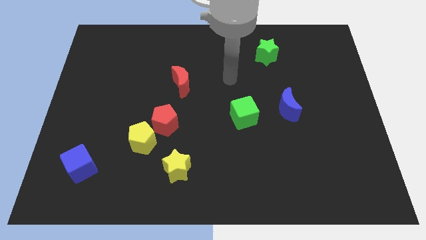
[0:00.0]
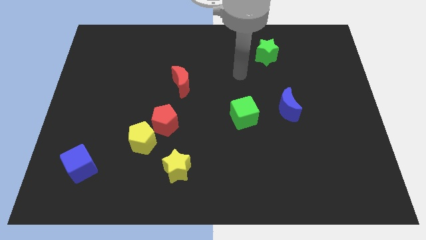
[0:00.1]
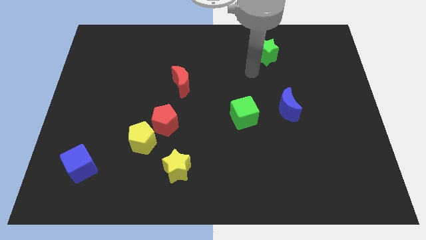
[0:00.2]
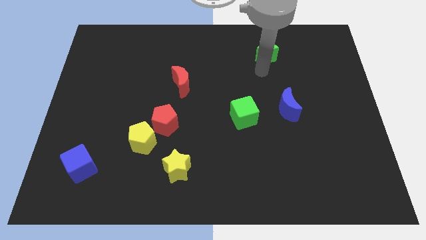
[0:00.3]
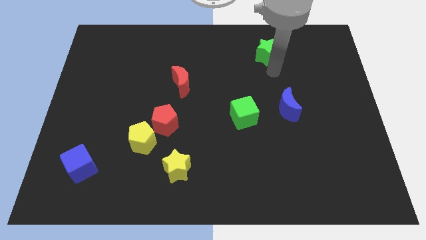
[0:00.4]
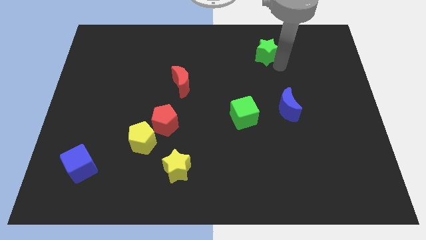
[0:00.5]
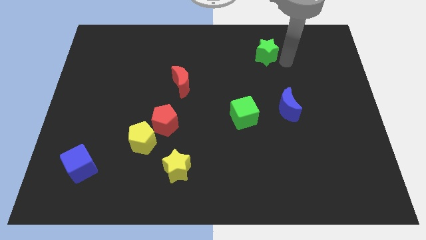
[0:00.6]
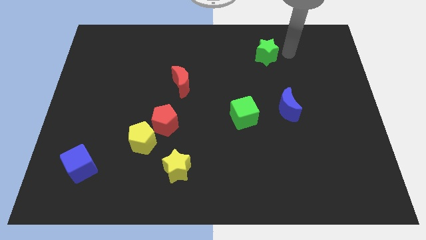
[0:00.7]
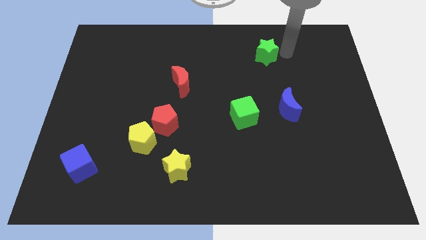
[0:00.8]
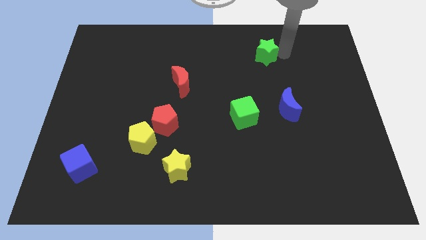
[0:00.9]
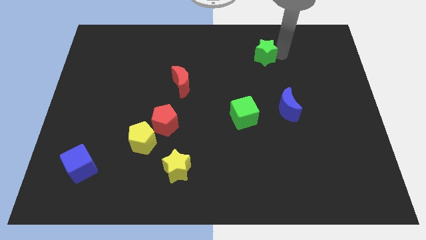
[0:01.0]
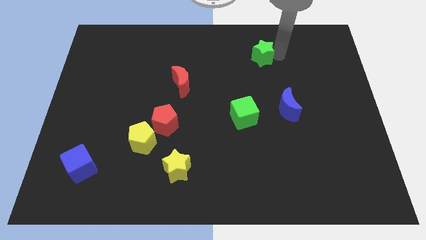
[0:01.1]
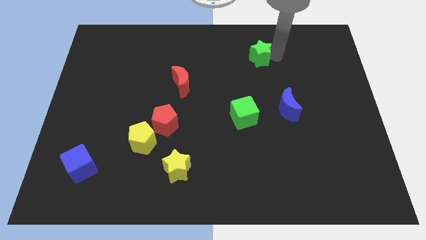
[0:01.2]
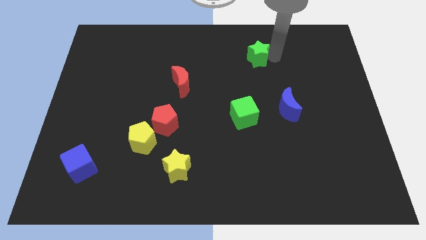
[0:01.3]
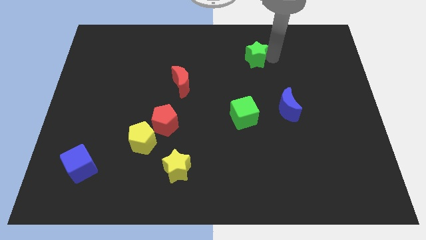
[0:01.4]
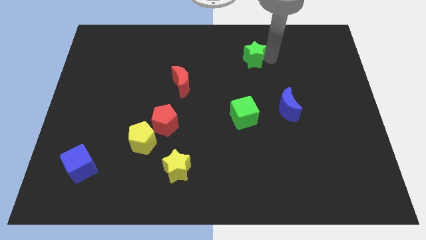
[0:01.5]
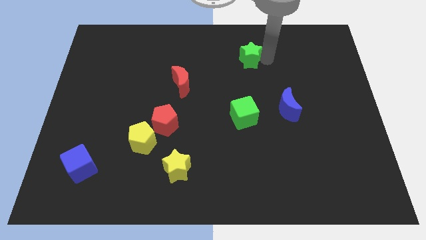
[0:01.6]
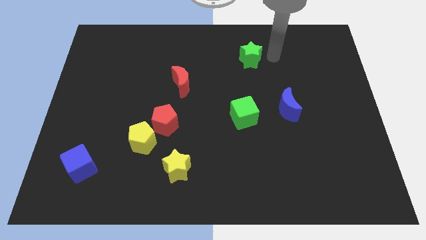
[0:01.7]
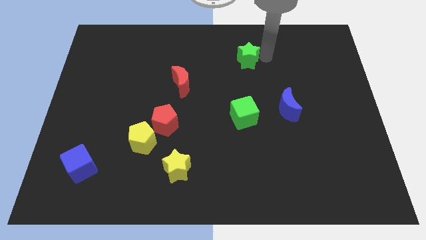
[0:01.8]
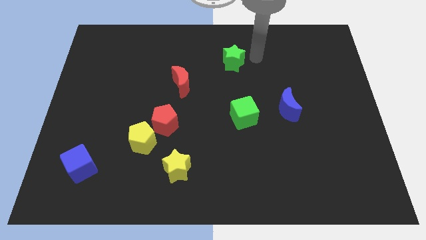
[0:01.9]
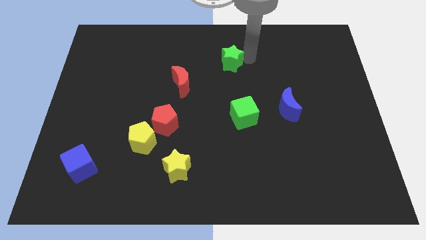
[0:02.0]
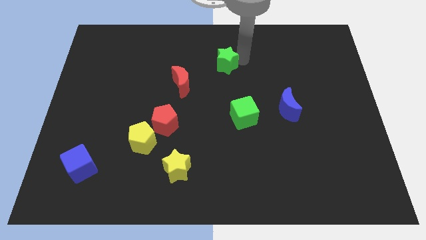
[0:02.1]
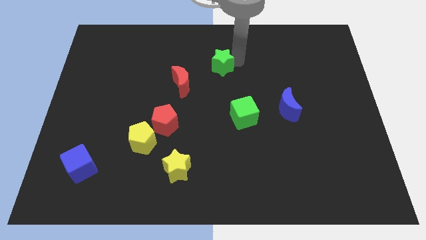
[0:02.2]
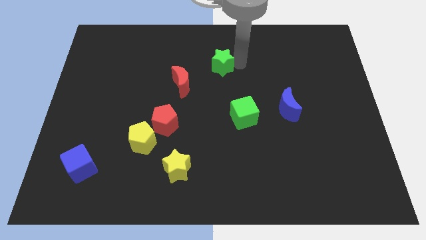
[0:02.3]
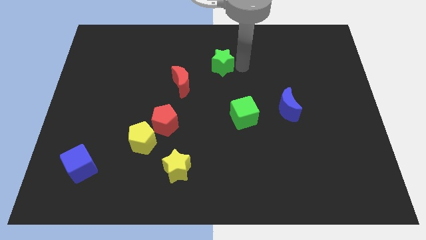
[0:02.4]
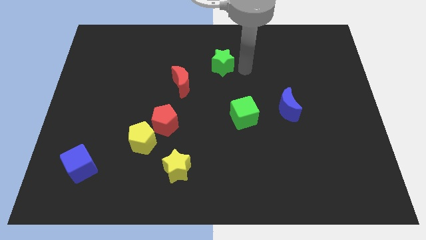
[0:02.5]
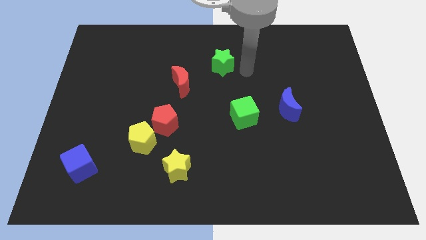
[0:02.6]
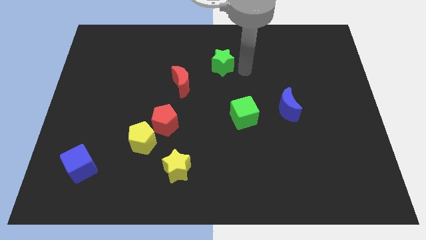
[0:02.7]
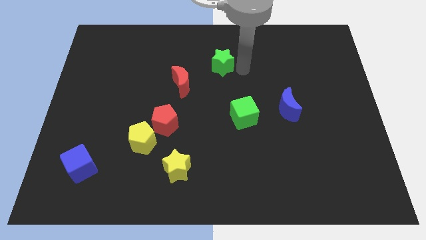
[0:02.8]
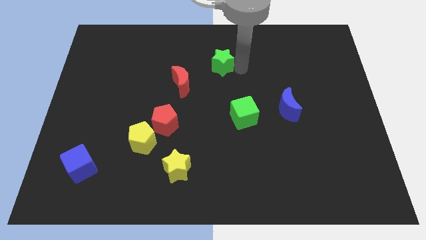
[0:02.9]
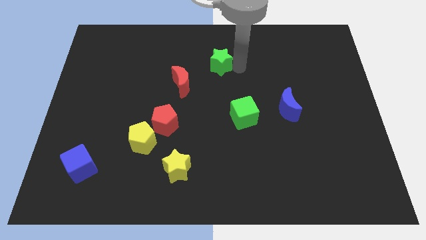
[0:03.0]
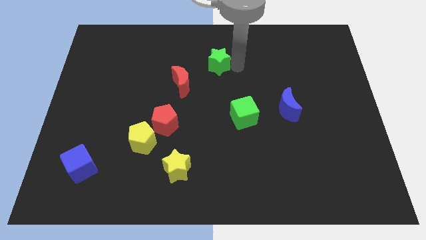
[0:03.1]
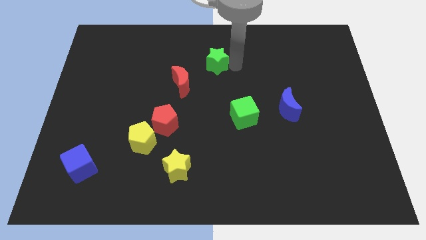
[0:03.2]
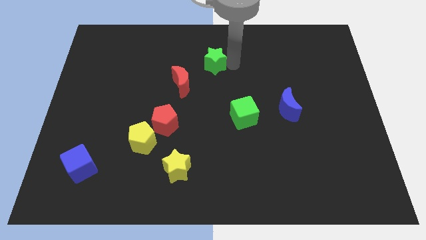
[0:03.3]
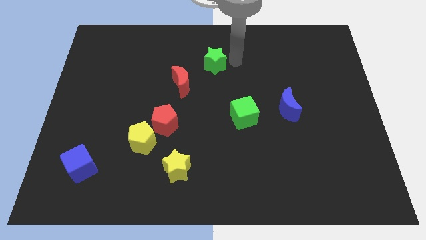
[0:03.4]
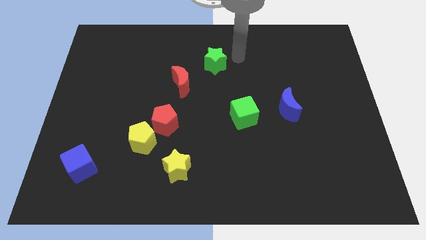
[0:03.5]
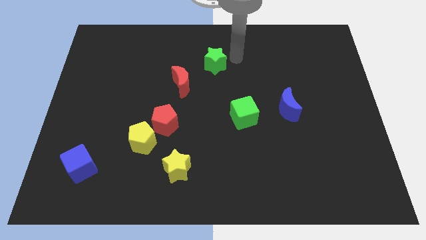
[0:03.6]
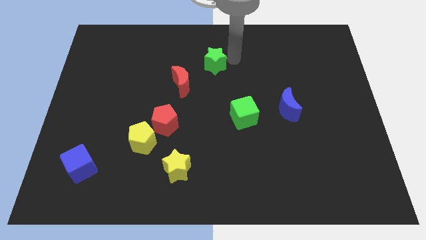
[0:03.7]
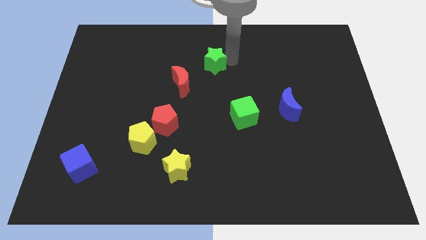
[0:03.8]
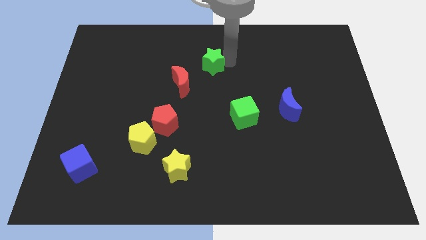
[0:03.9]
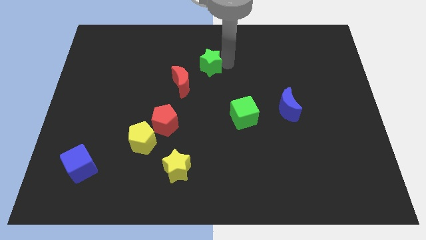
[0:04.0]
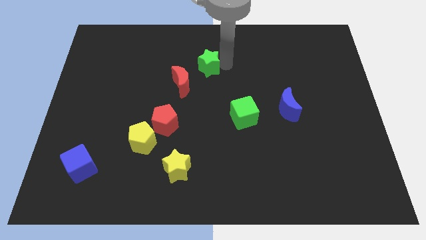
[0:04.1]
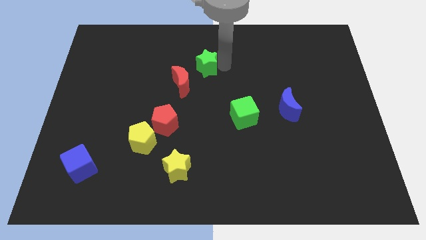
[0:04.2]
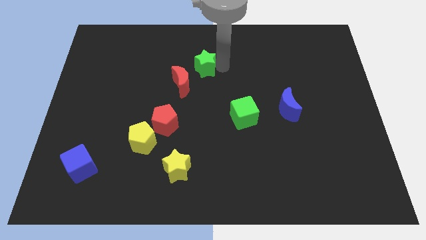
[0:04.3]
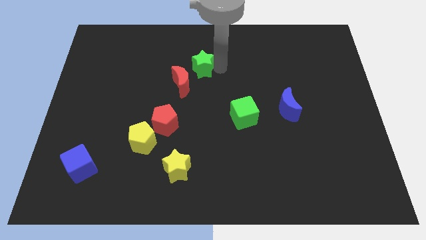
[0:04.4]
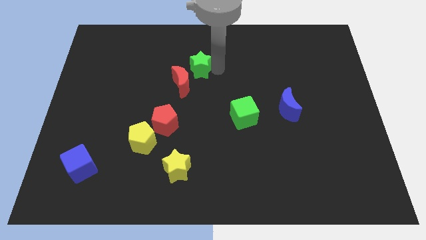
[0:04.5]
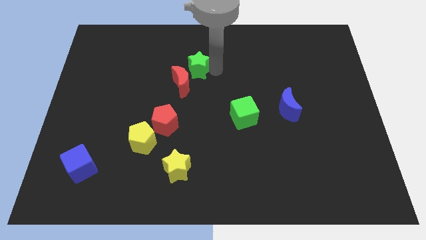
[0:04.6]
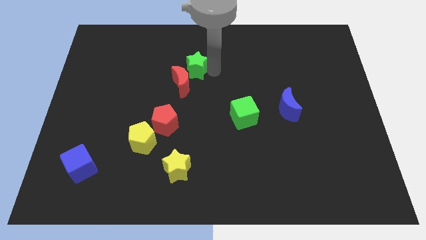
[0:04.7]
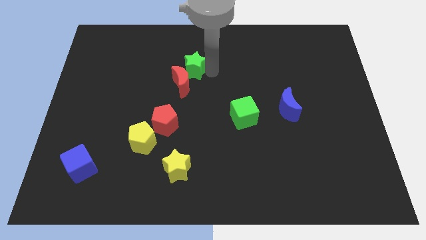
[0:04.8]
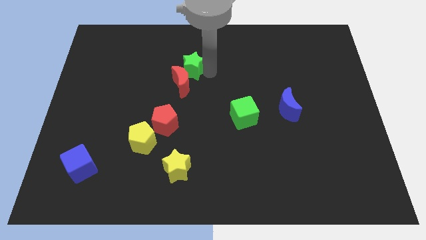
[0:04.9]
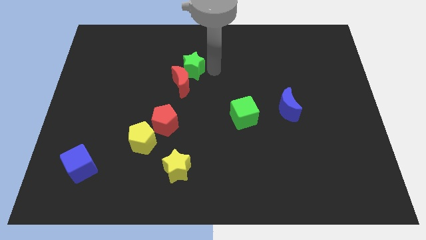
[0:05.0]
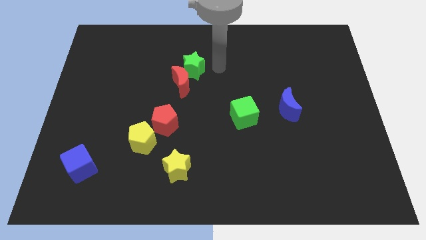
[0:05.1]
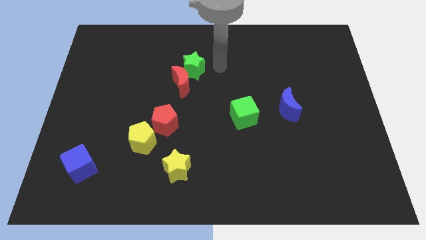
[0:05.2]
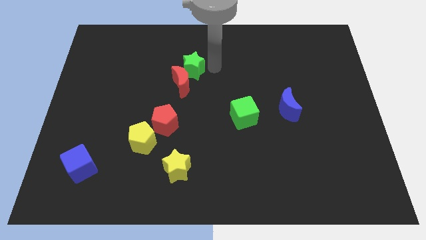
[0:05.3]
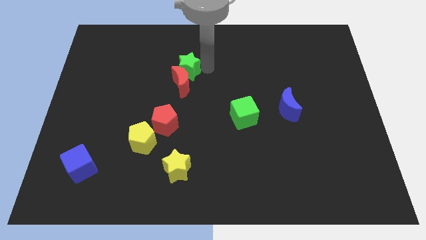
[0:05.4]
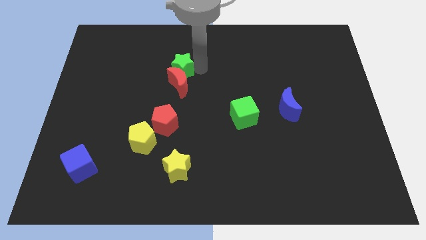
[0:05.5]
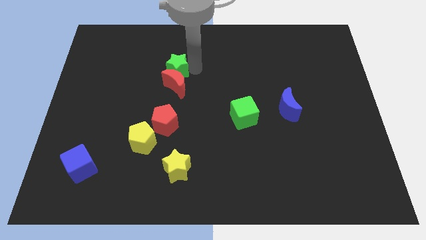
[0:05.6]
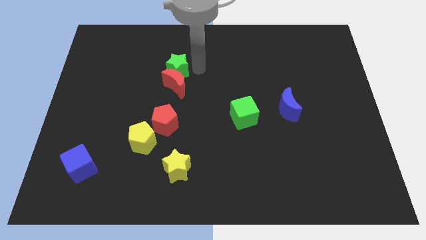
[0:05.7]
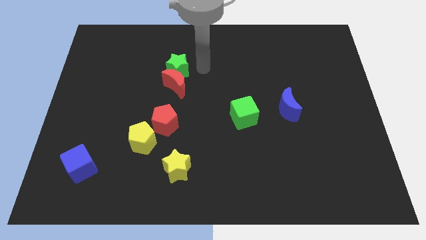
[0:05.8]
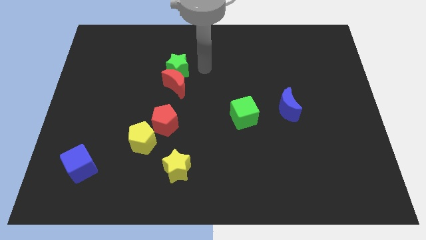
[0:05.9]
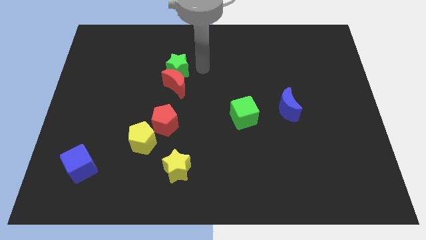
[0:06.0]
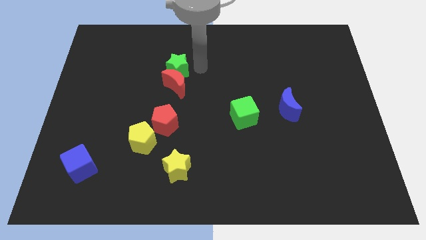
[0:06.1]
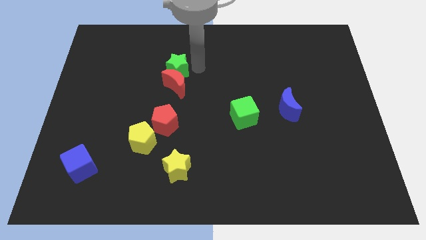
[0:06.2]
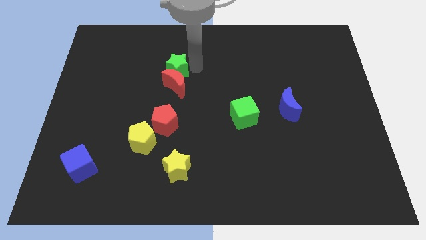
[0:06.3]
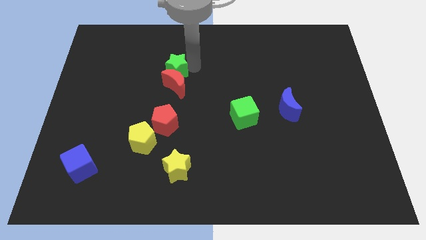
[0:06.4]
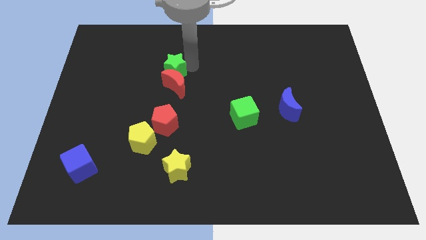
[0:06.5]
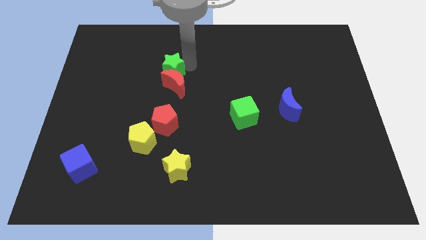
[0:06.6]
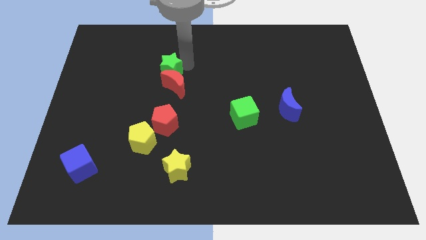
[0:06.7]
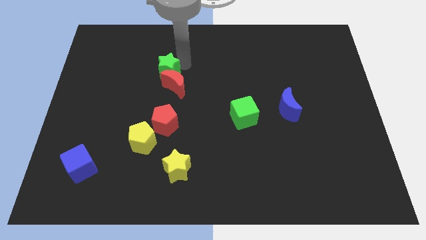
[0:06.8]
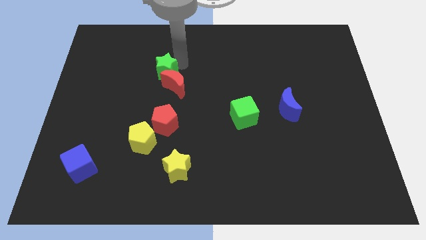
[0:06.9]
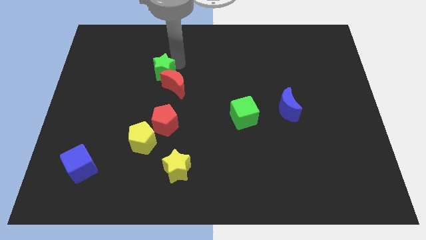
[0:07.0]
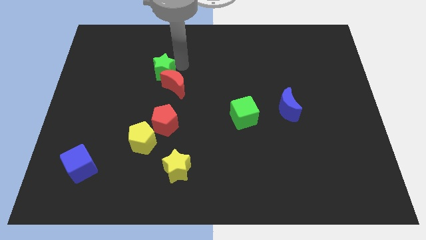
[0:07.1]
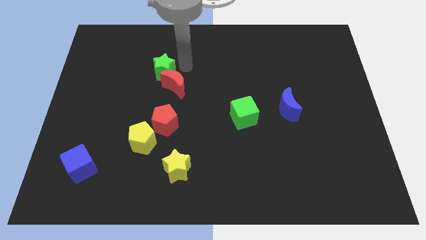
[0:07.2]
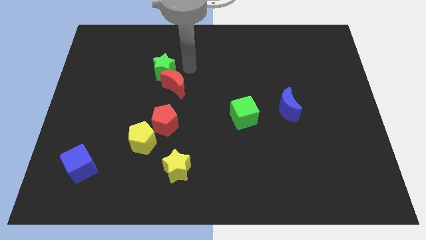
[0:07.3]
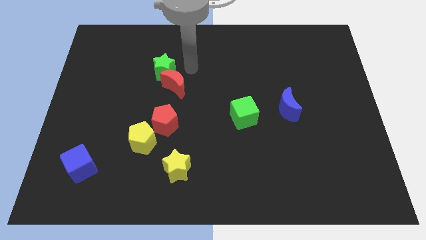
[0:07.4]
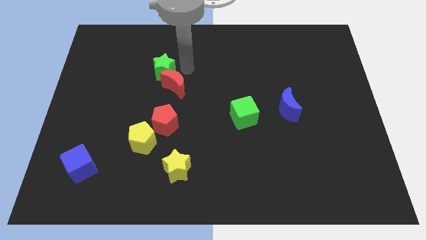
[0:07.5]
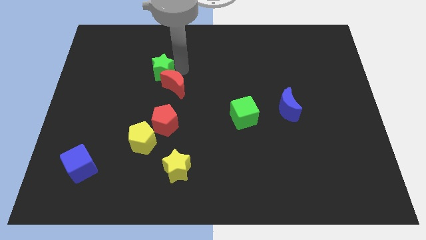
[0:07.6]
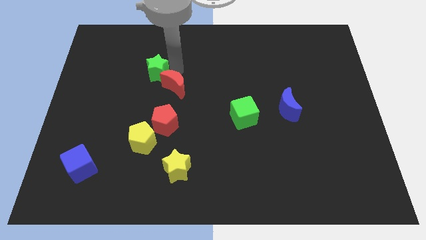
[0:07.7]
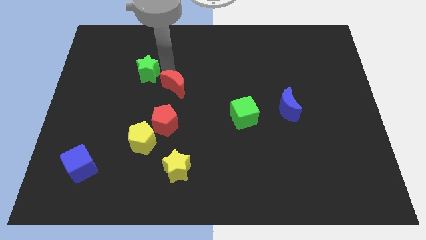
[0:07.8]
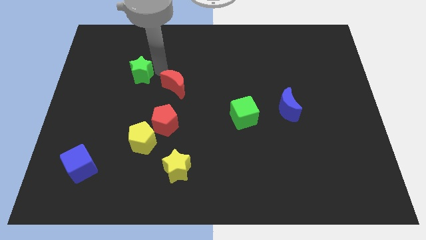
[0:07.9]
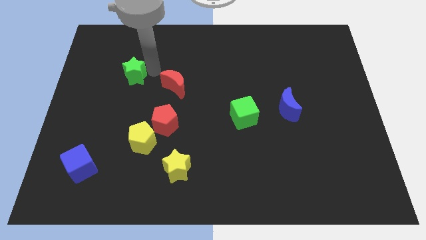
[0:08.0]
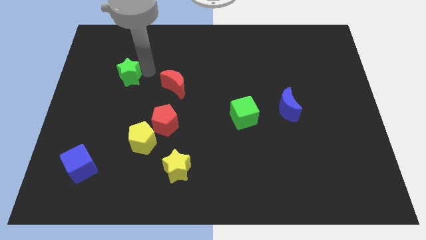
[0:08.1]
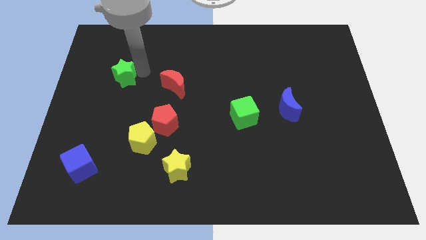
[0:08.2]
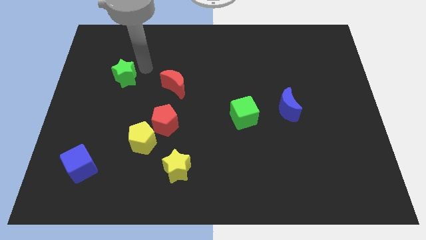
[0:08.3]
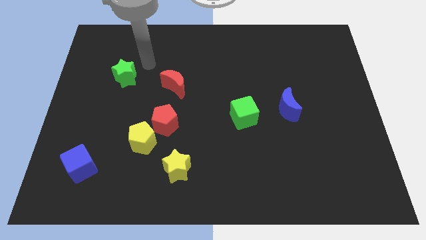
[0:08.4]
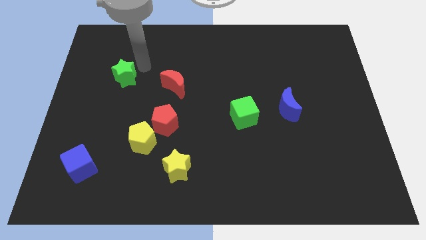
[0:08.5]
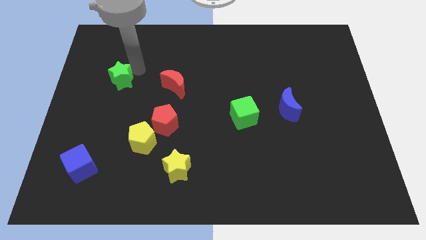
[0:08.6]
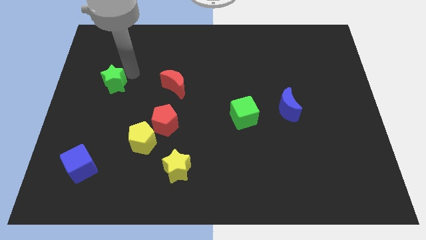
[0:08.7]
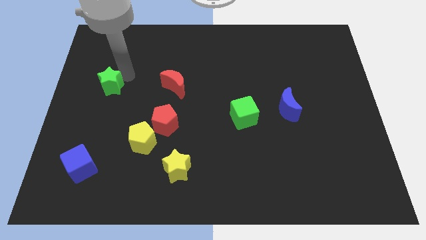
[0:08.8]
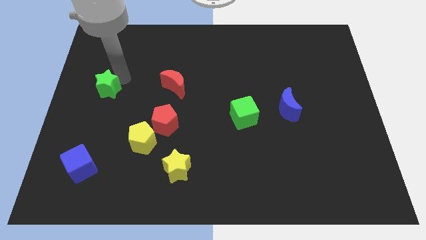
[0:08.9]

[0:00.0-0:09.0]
put the green star to the left side
